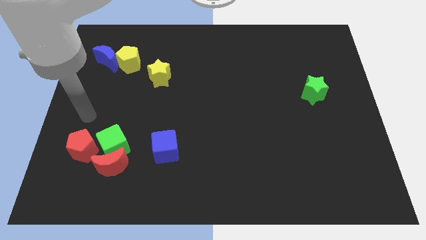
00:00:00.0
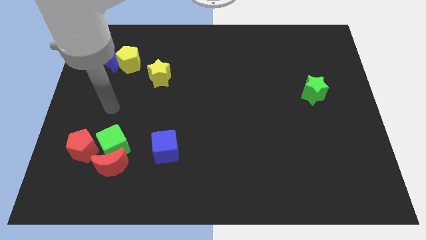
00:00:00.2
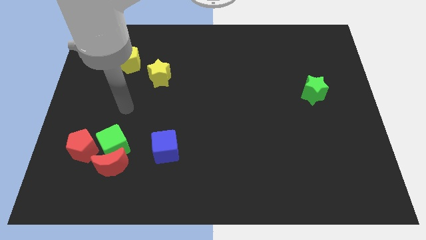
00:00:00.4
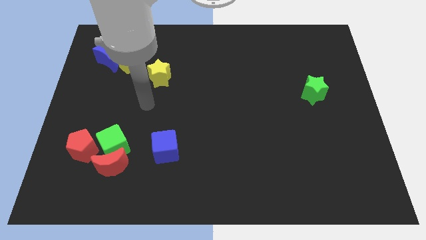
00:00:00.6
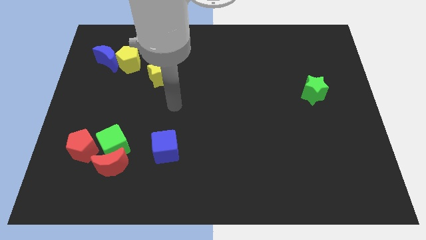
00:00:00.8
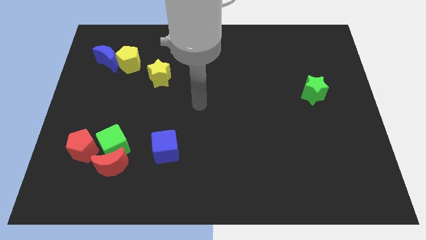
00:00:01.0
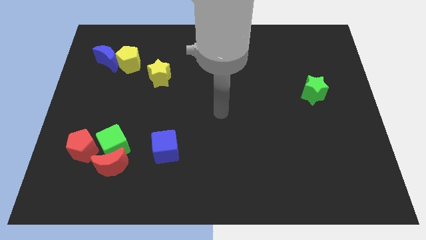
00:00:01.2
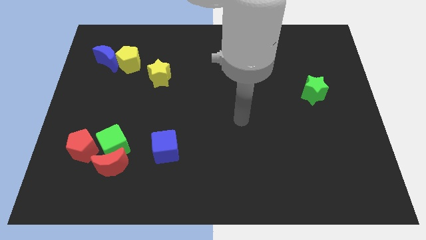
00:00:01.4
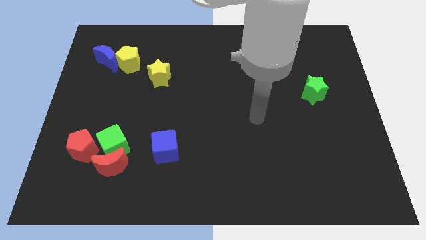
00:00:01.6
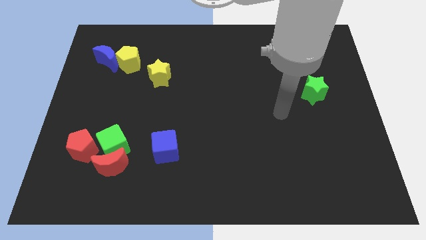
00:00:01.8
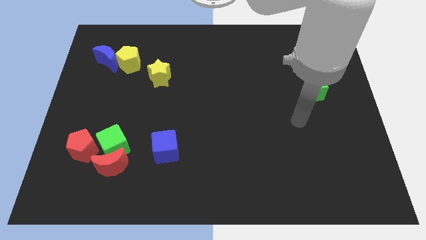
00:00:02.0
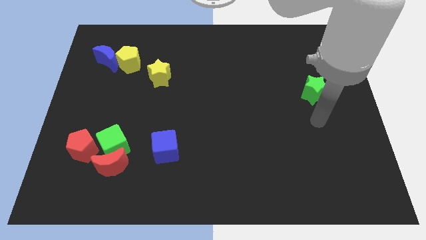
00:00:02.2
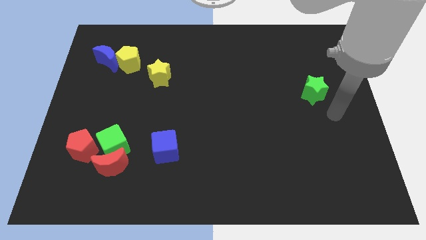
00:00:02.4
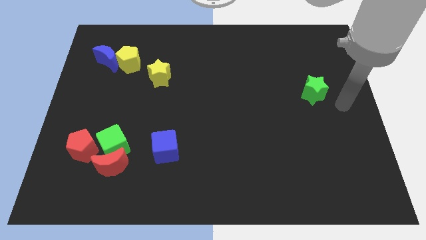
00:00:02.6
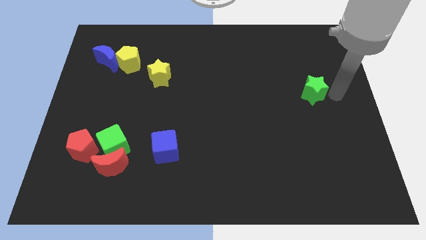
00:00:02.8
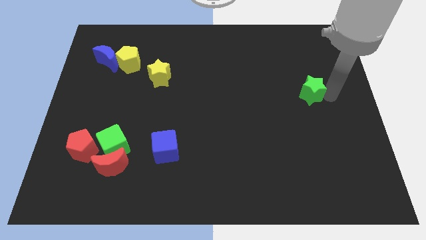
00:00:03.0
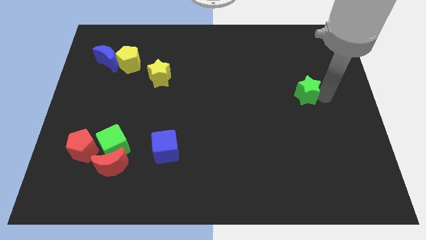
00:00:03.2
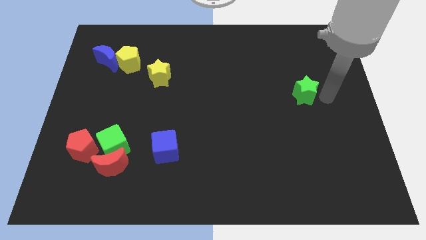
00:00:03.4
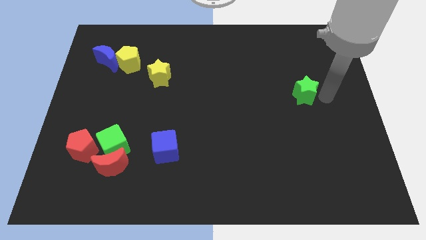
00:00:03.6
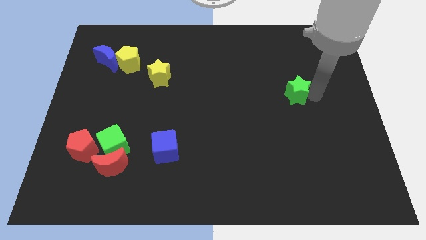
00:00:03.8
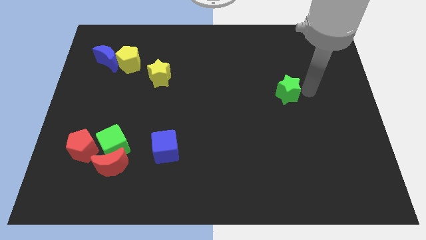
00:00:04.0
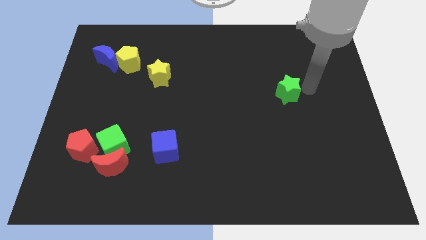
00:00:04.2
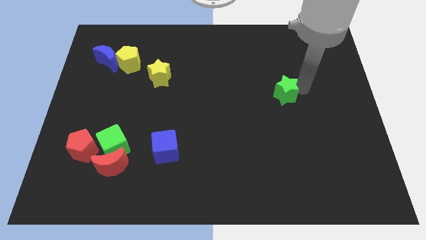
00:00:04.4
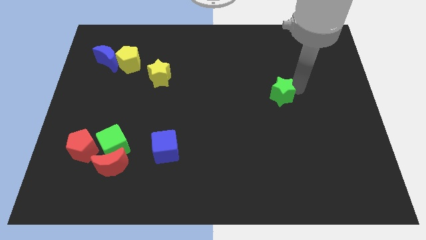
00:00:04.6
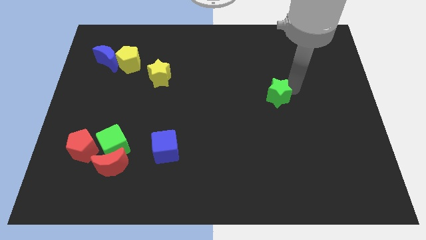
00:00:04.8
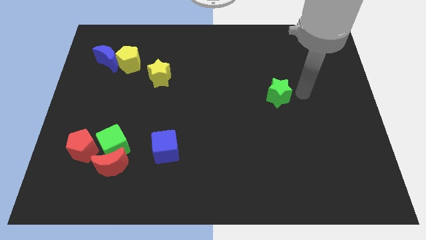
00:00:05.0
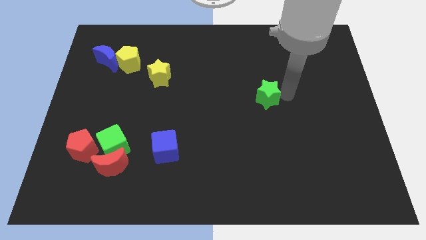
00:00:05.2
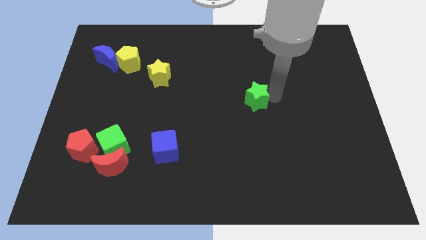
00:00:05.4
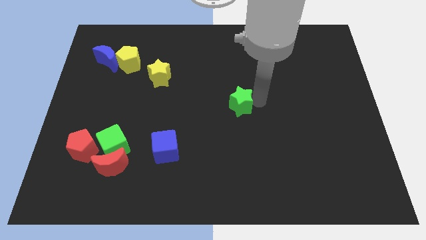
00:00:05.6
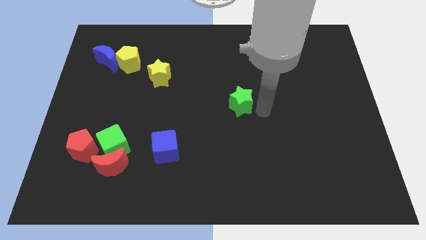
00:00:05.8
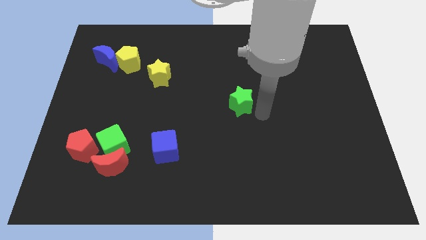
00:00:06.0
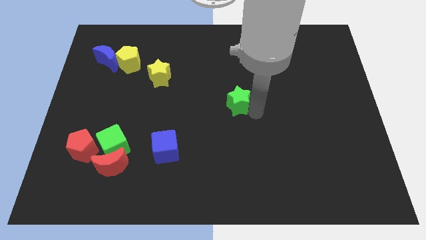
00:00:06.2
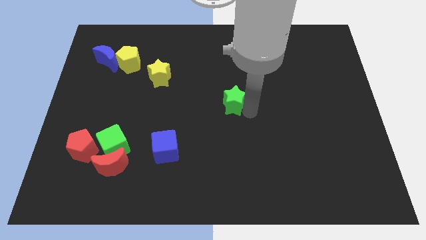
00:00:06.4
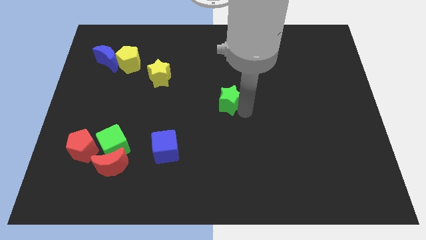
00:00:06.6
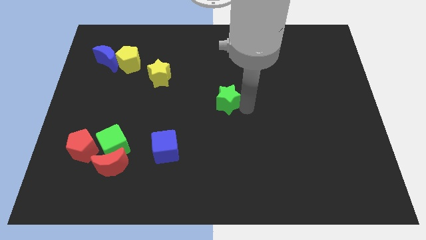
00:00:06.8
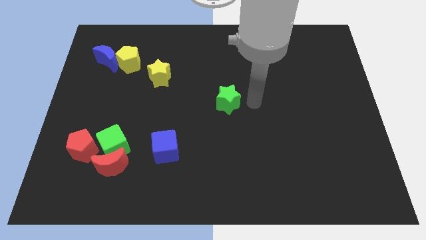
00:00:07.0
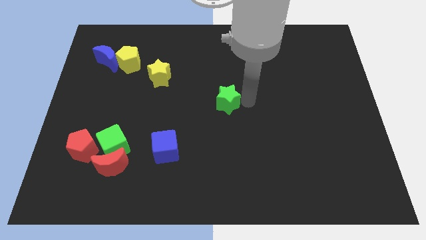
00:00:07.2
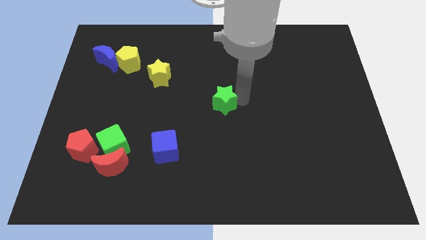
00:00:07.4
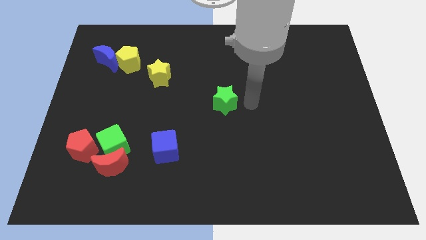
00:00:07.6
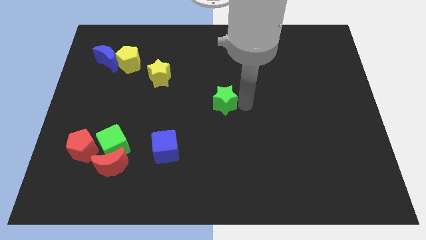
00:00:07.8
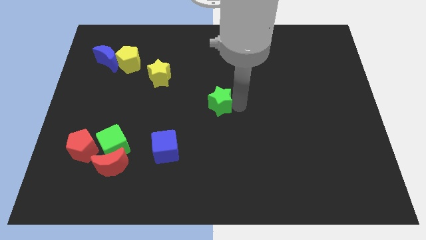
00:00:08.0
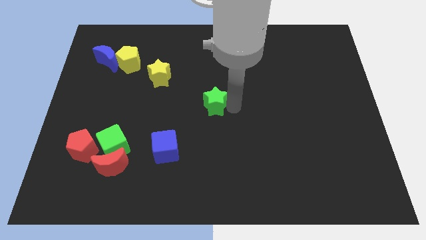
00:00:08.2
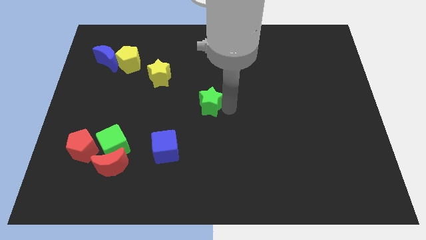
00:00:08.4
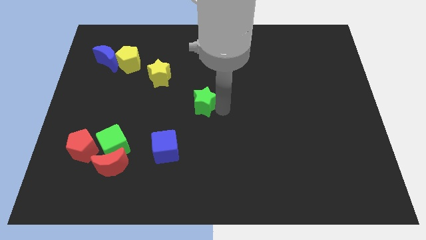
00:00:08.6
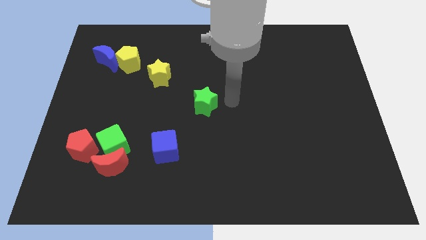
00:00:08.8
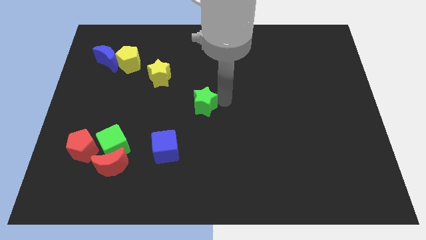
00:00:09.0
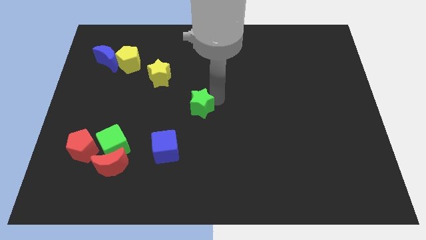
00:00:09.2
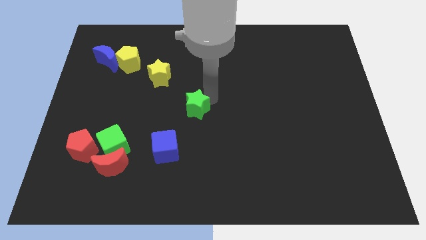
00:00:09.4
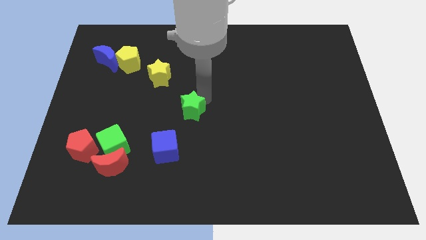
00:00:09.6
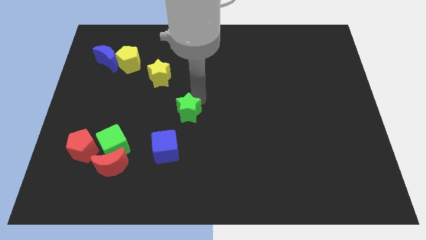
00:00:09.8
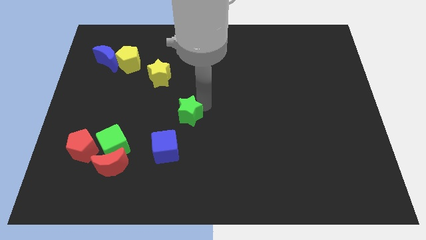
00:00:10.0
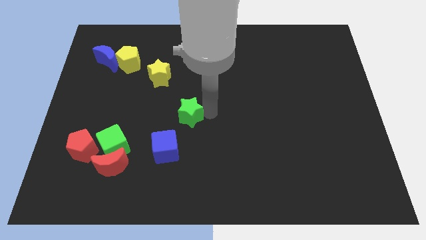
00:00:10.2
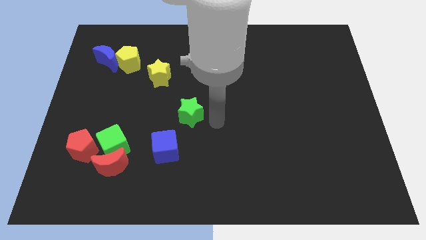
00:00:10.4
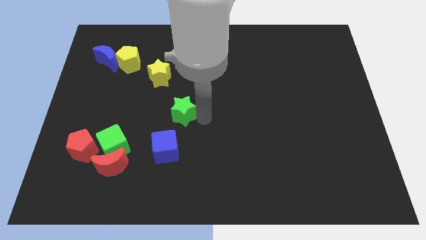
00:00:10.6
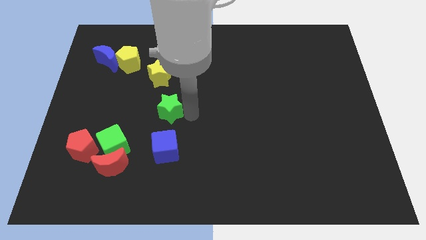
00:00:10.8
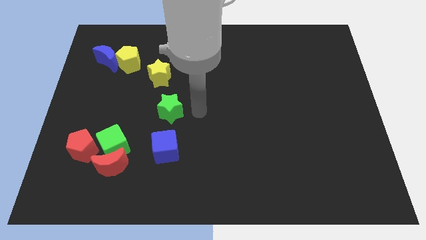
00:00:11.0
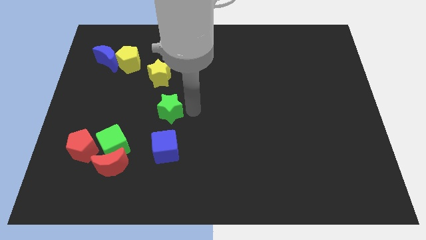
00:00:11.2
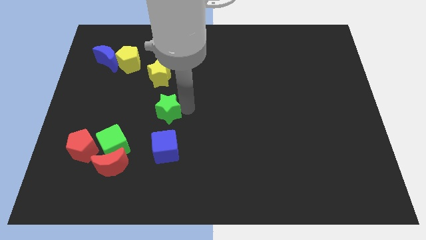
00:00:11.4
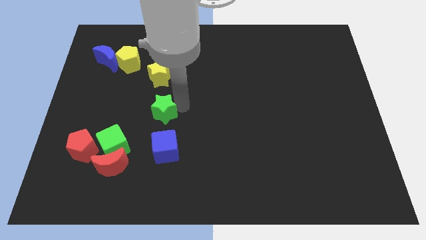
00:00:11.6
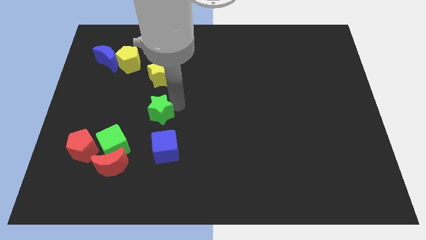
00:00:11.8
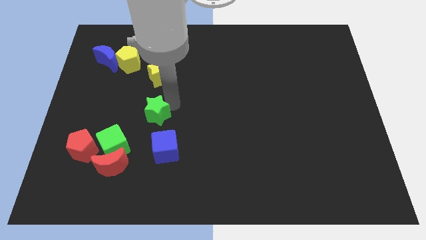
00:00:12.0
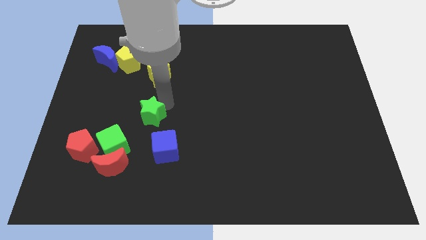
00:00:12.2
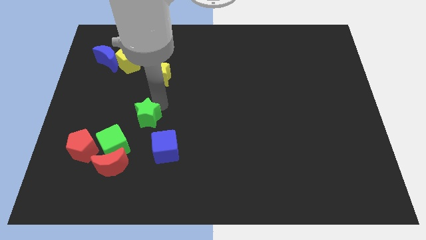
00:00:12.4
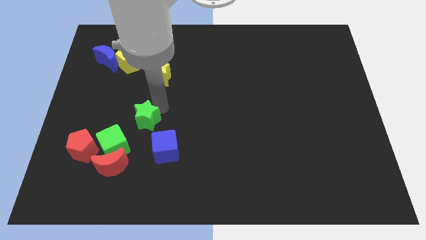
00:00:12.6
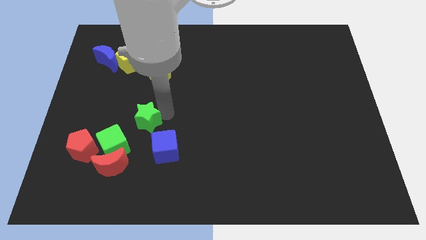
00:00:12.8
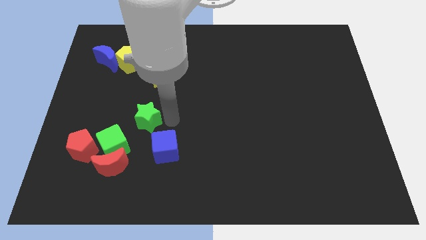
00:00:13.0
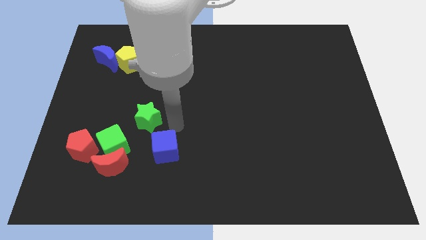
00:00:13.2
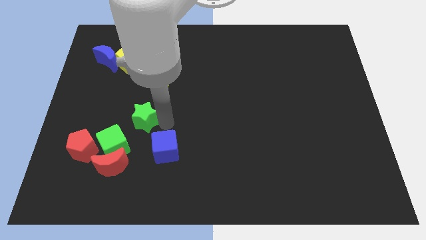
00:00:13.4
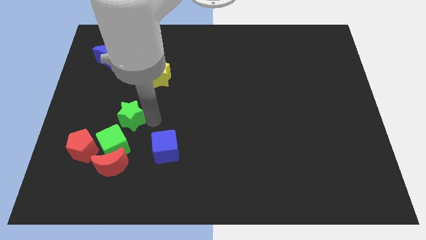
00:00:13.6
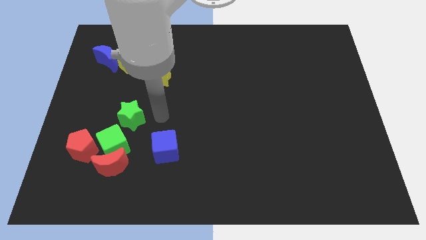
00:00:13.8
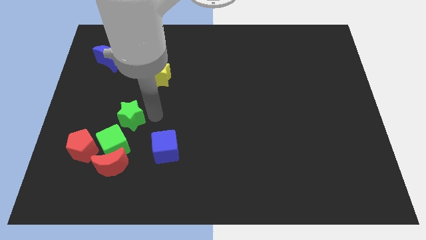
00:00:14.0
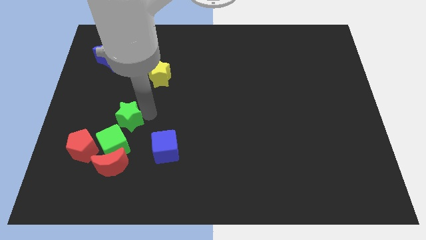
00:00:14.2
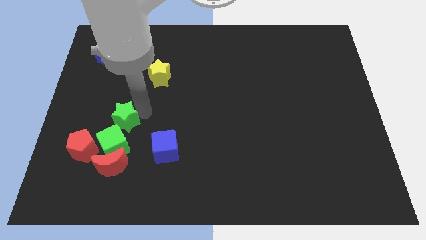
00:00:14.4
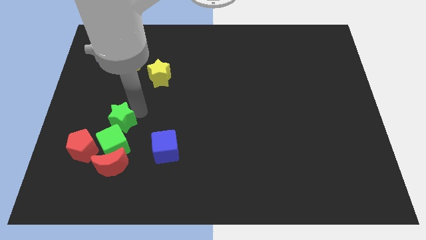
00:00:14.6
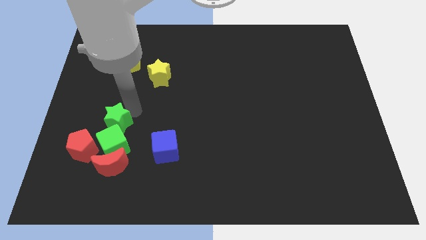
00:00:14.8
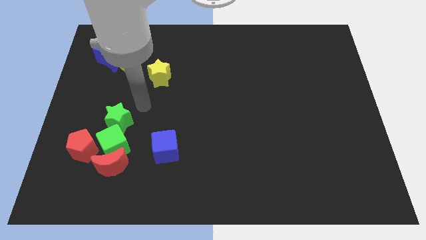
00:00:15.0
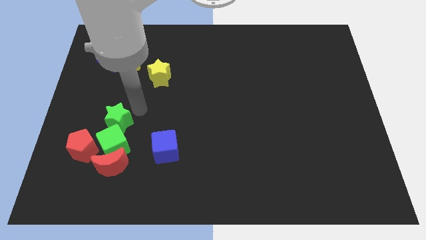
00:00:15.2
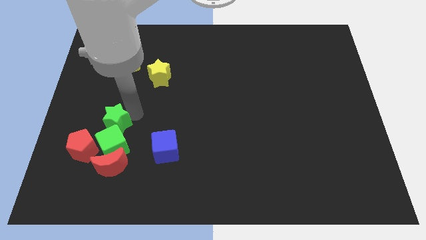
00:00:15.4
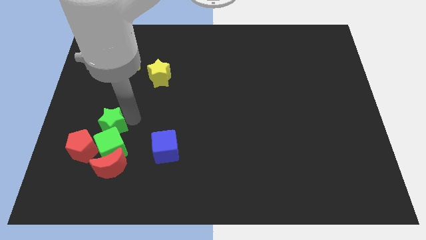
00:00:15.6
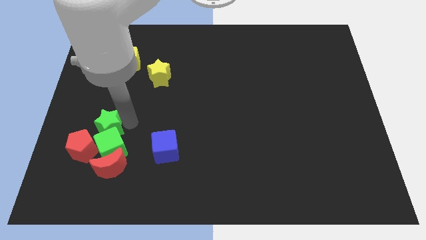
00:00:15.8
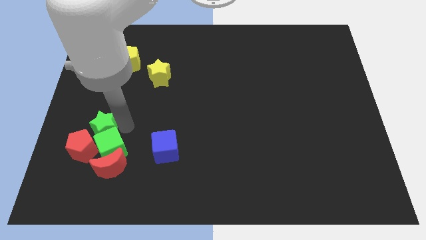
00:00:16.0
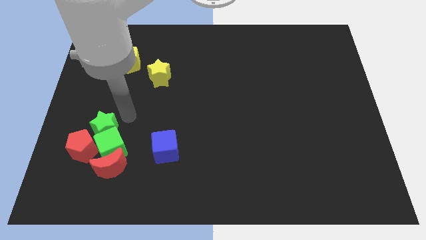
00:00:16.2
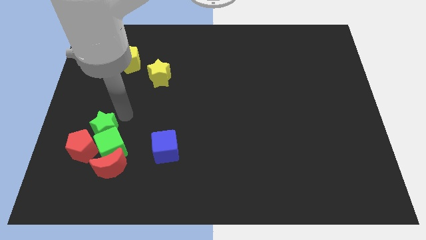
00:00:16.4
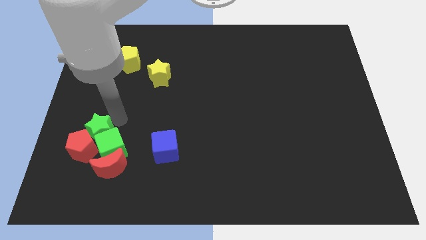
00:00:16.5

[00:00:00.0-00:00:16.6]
push the green star close to the red pentagon
